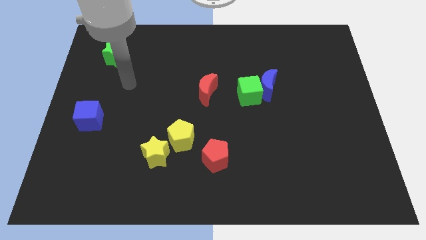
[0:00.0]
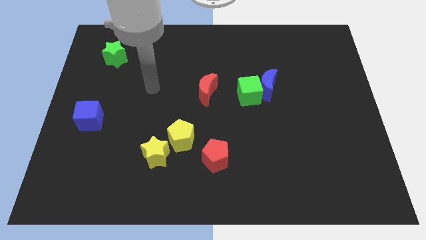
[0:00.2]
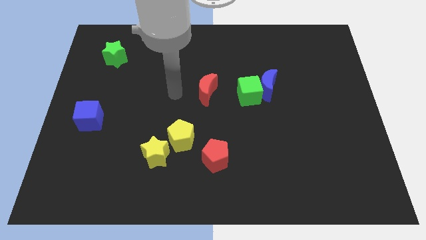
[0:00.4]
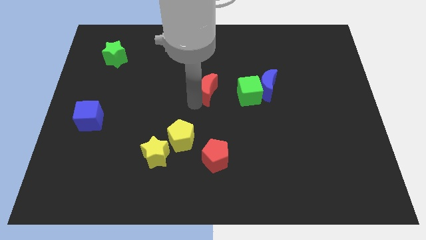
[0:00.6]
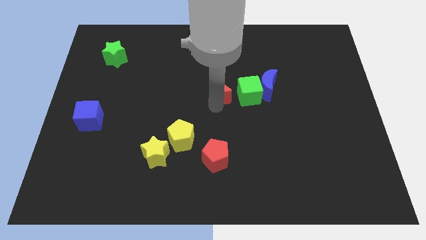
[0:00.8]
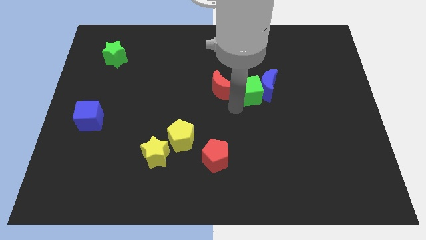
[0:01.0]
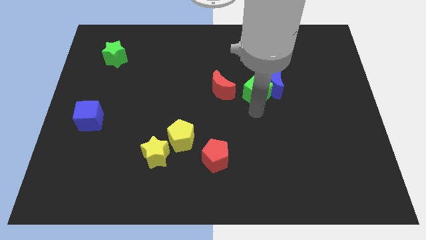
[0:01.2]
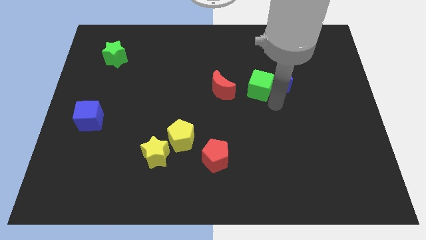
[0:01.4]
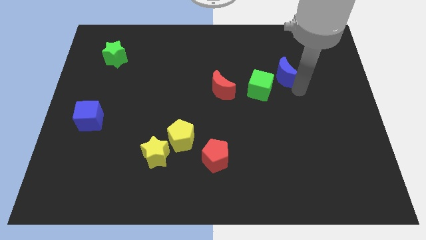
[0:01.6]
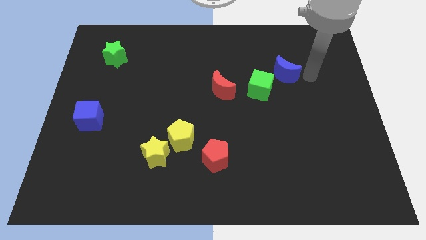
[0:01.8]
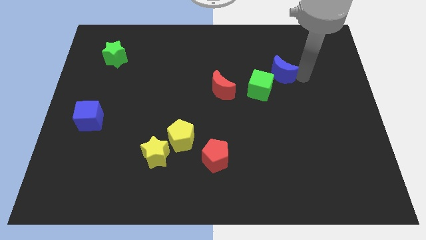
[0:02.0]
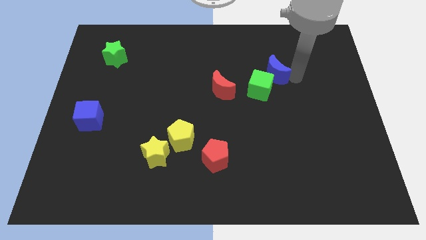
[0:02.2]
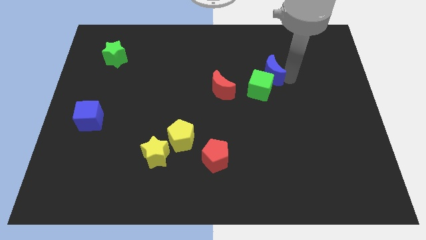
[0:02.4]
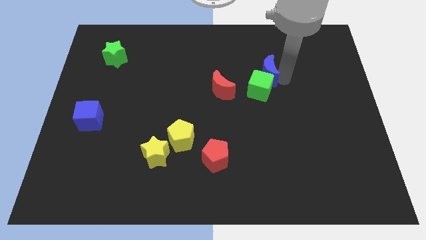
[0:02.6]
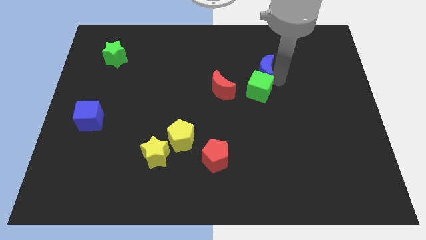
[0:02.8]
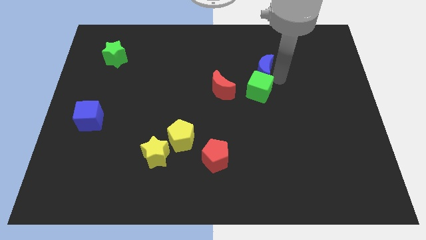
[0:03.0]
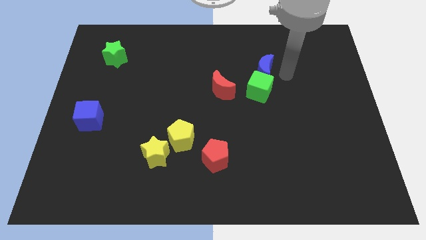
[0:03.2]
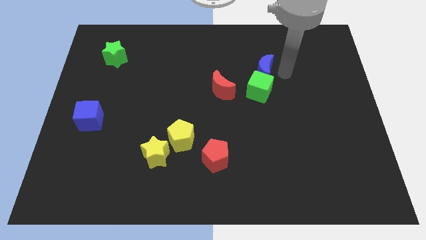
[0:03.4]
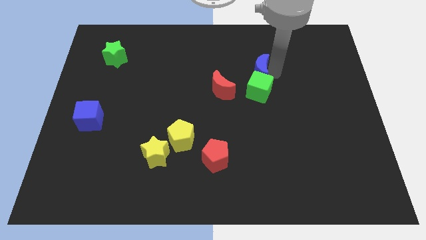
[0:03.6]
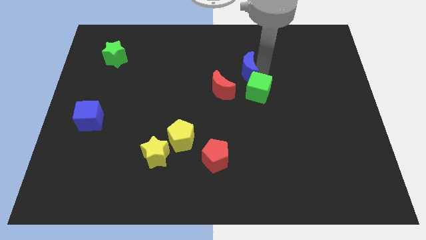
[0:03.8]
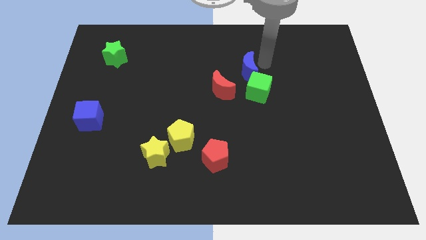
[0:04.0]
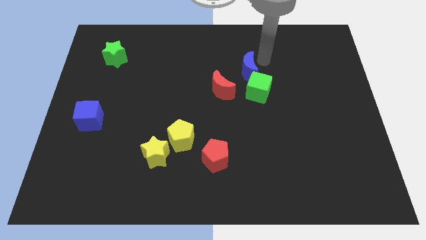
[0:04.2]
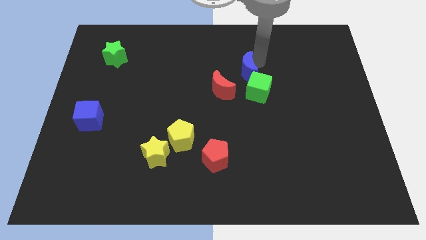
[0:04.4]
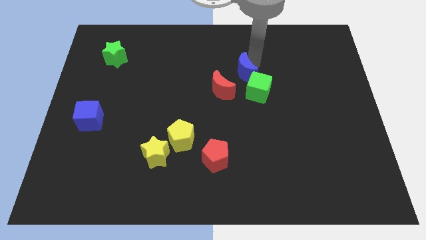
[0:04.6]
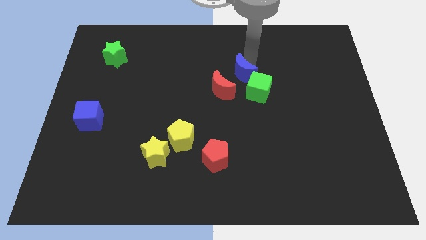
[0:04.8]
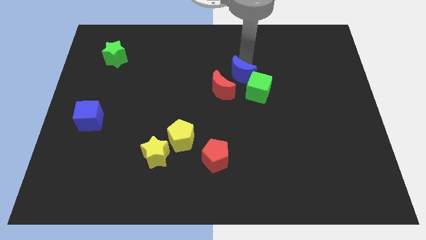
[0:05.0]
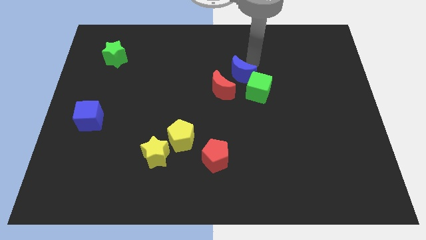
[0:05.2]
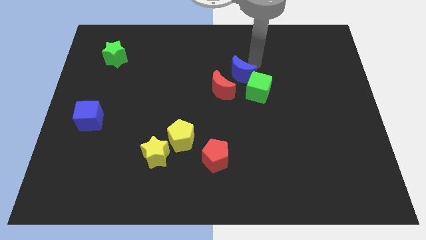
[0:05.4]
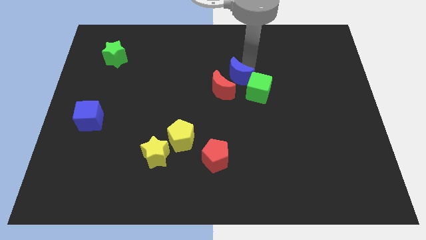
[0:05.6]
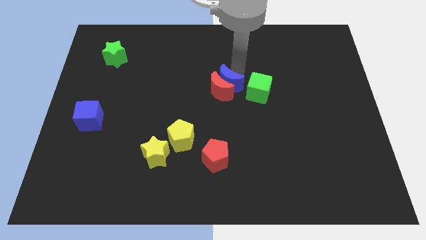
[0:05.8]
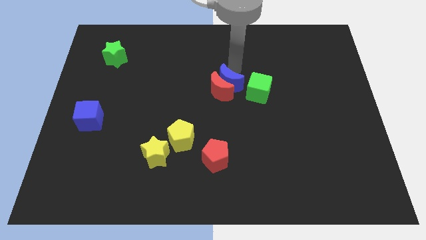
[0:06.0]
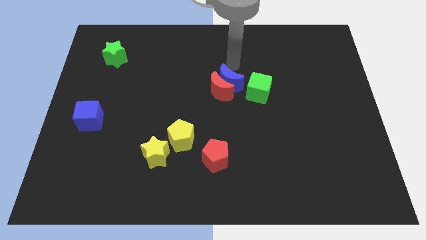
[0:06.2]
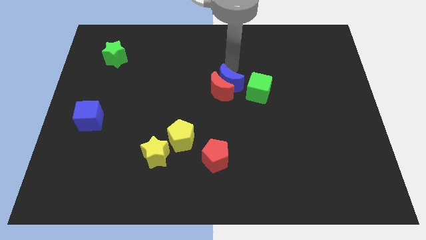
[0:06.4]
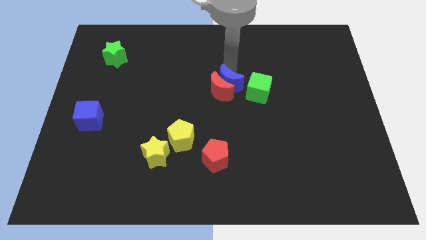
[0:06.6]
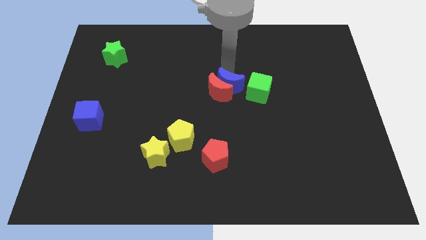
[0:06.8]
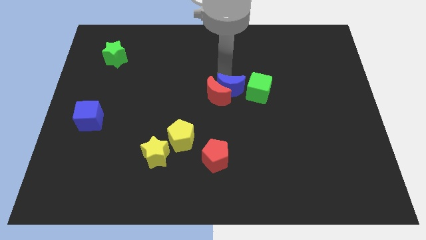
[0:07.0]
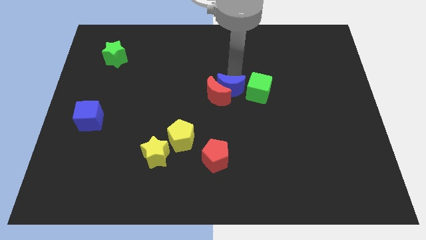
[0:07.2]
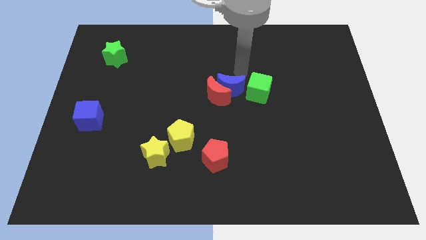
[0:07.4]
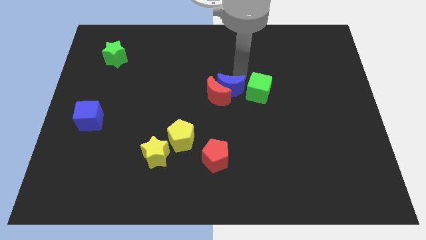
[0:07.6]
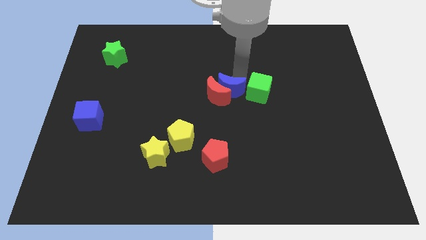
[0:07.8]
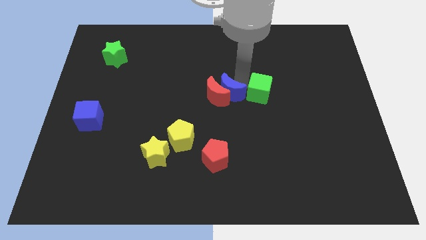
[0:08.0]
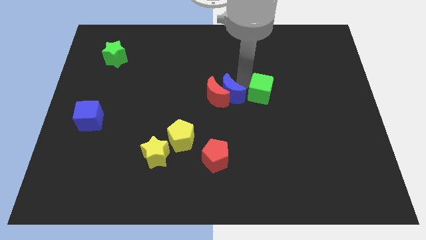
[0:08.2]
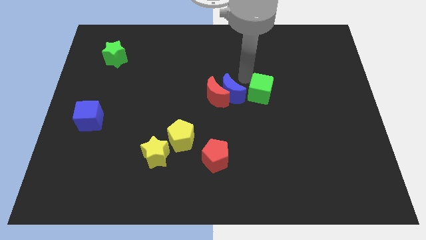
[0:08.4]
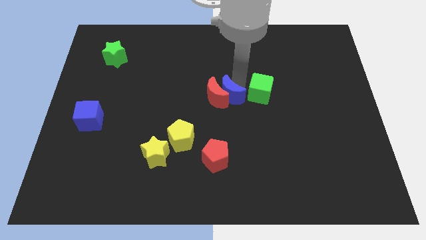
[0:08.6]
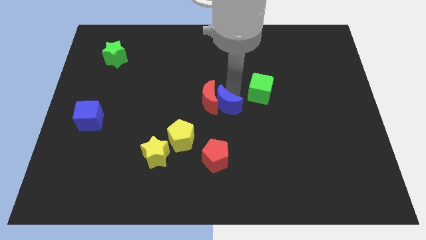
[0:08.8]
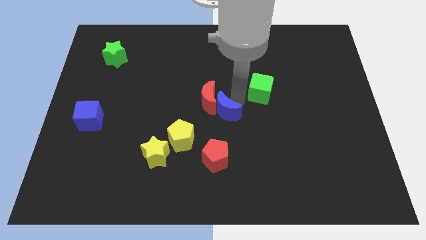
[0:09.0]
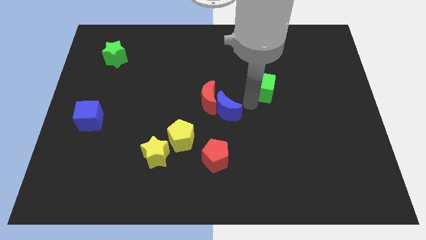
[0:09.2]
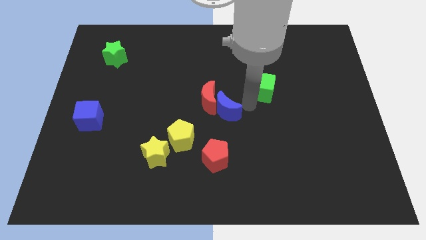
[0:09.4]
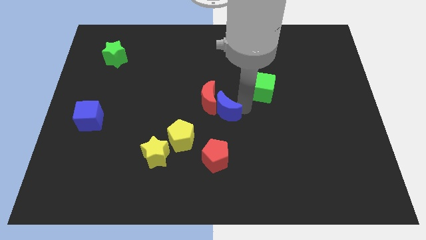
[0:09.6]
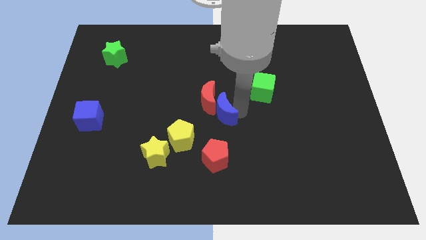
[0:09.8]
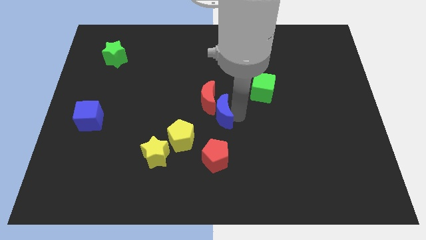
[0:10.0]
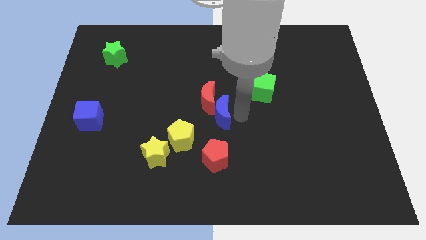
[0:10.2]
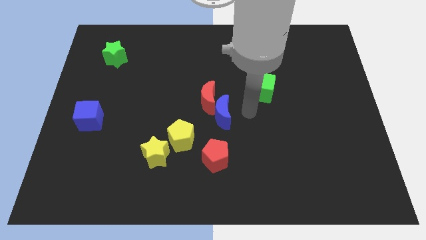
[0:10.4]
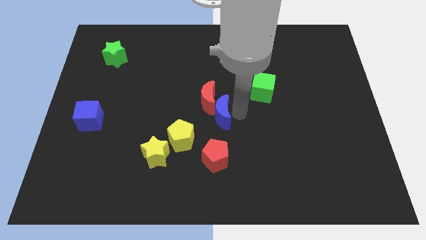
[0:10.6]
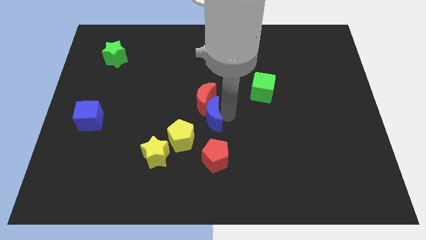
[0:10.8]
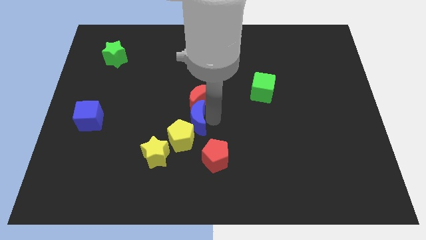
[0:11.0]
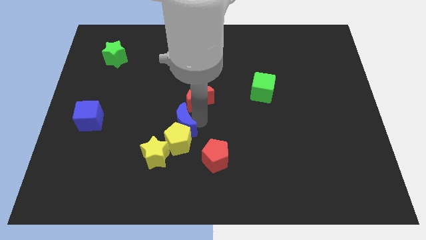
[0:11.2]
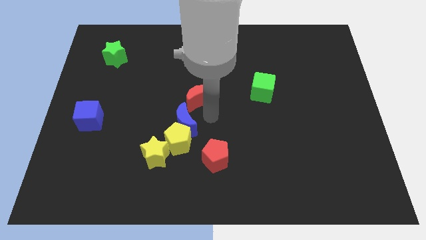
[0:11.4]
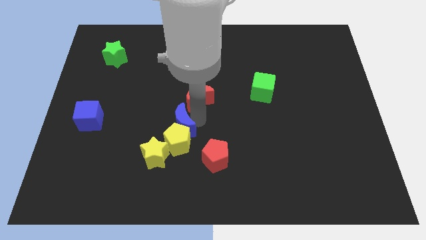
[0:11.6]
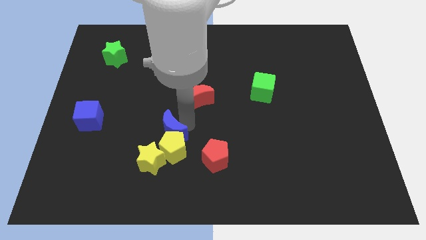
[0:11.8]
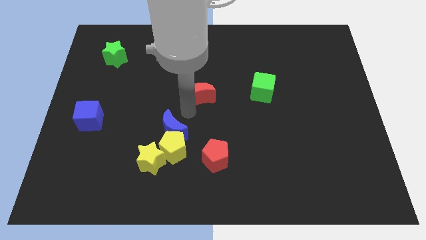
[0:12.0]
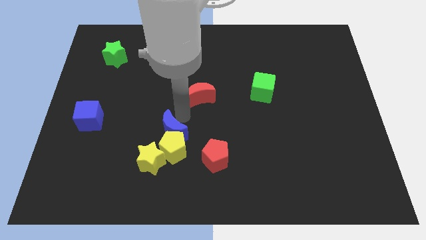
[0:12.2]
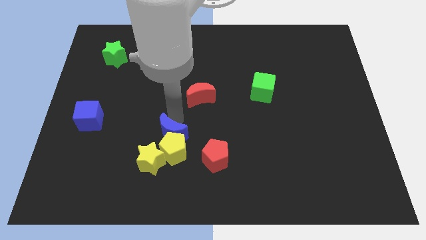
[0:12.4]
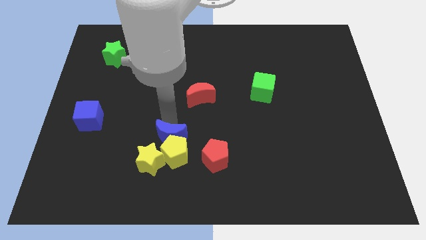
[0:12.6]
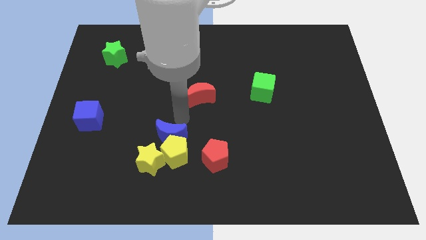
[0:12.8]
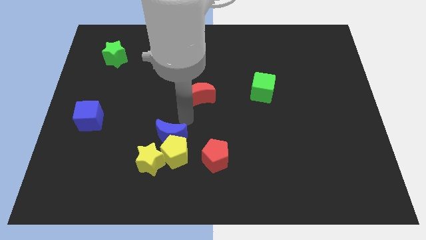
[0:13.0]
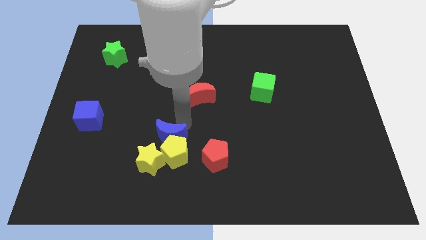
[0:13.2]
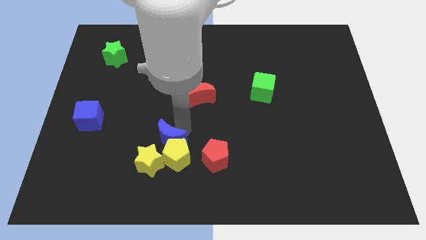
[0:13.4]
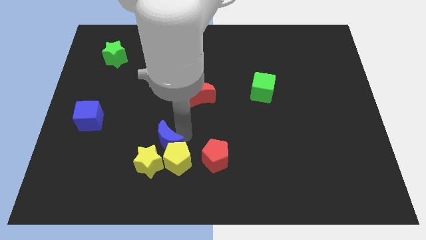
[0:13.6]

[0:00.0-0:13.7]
push the blue moon to the yellow star
